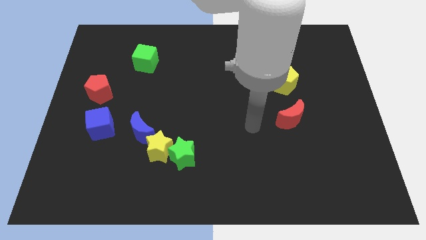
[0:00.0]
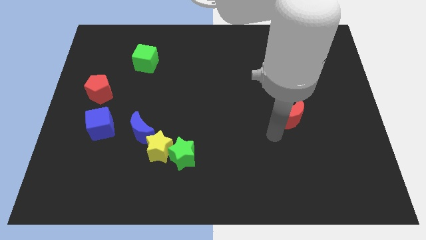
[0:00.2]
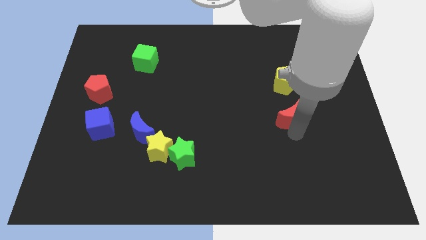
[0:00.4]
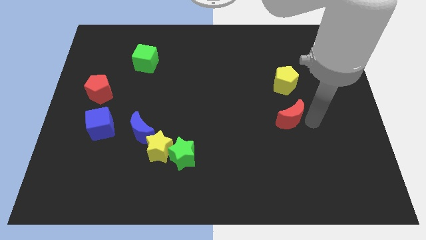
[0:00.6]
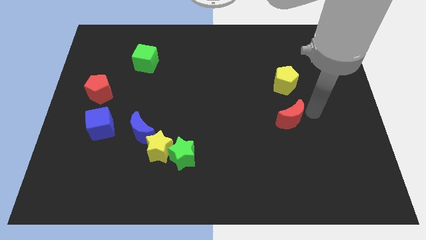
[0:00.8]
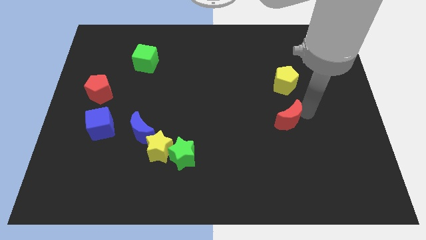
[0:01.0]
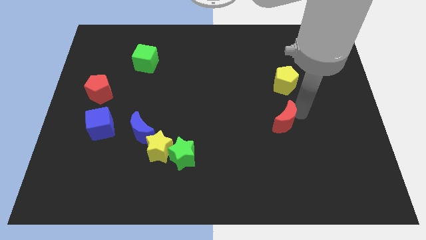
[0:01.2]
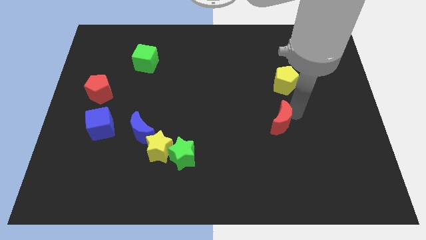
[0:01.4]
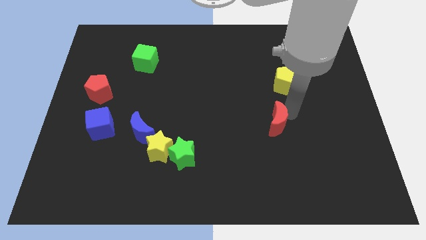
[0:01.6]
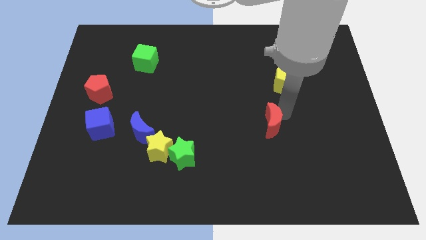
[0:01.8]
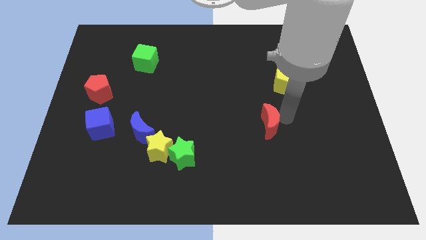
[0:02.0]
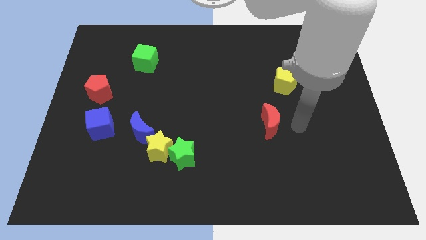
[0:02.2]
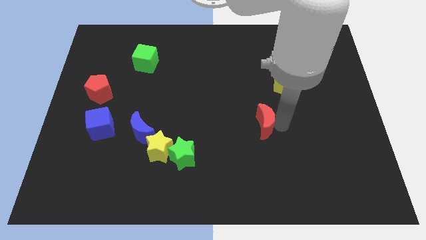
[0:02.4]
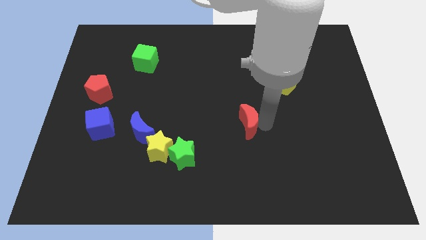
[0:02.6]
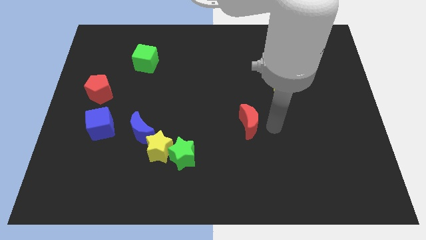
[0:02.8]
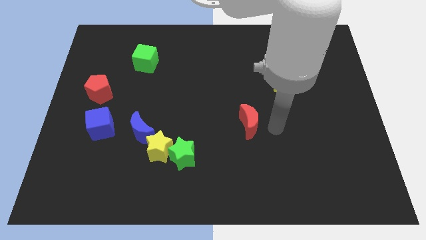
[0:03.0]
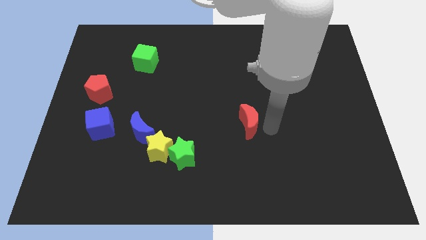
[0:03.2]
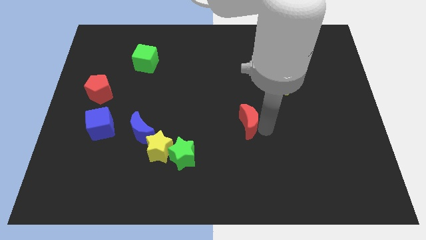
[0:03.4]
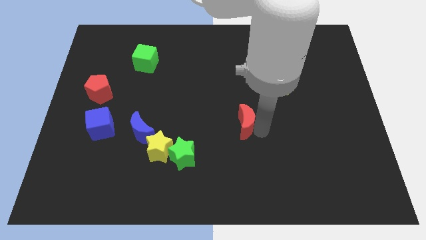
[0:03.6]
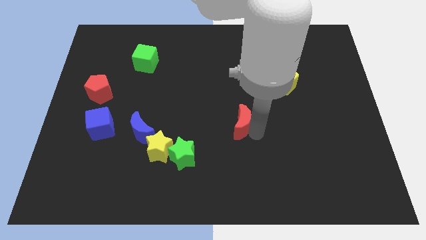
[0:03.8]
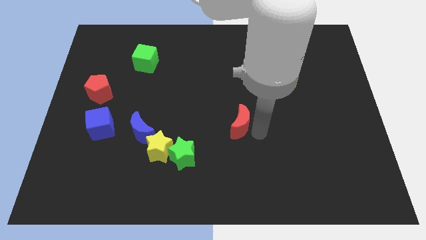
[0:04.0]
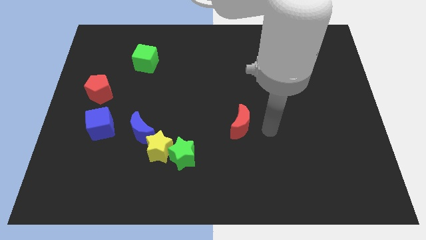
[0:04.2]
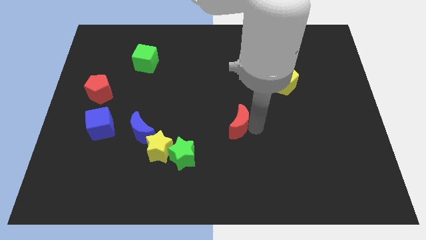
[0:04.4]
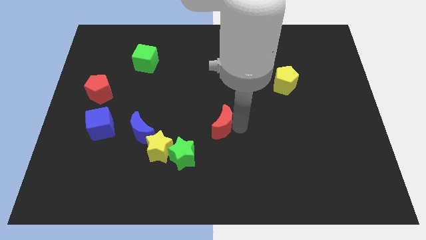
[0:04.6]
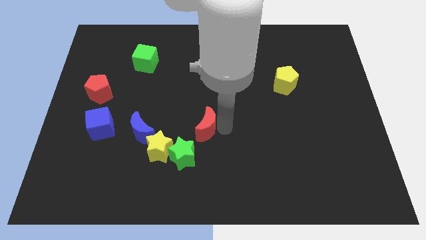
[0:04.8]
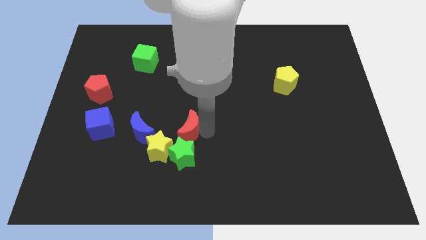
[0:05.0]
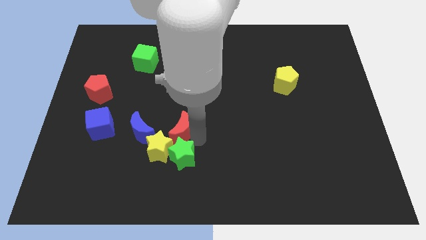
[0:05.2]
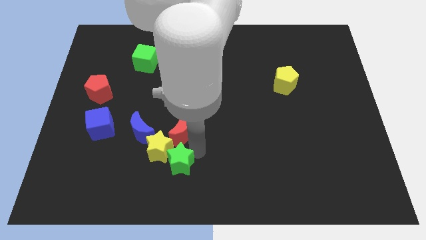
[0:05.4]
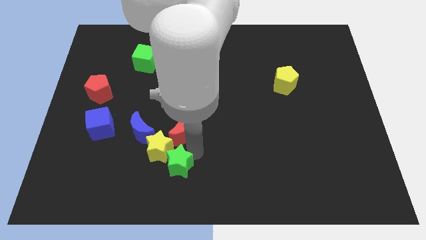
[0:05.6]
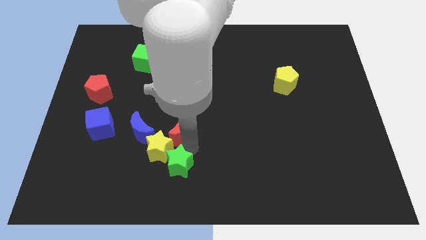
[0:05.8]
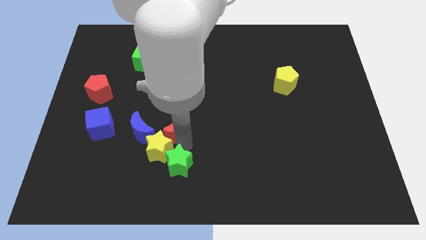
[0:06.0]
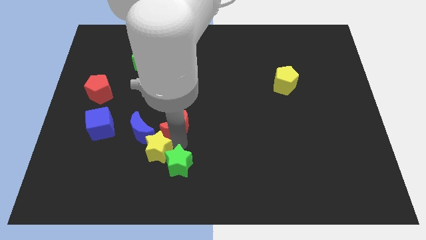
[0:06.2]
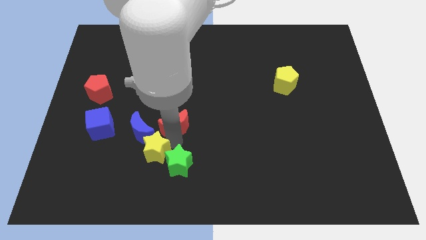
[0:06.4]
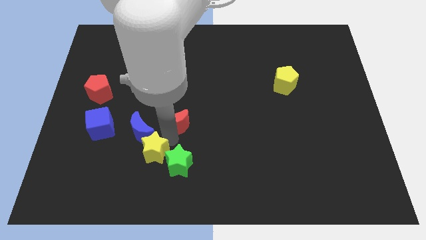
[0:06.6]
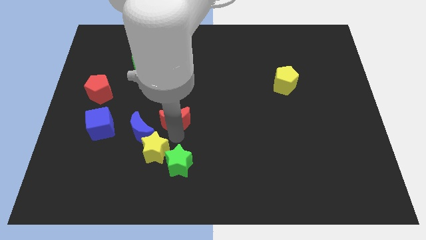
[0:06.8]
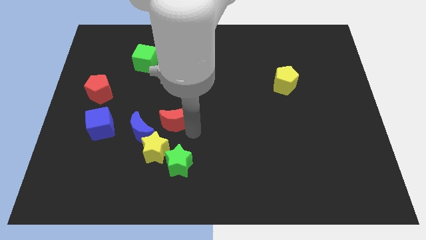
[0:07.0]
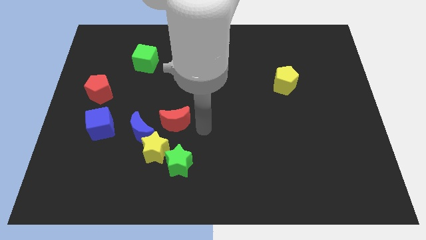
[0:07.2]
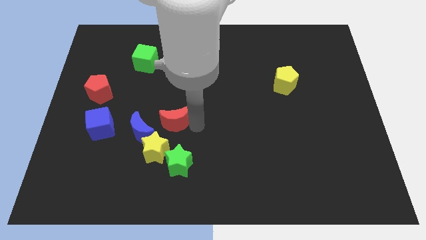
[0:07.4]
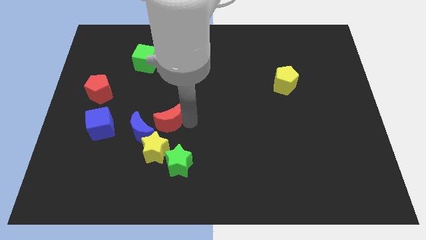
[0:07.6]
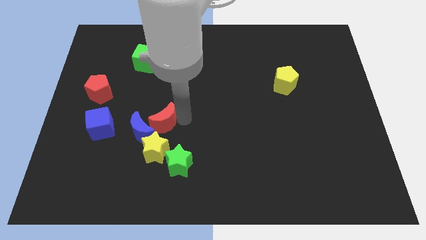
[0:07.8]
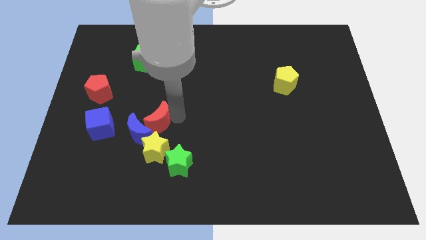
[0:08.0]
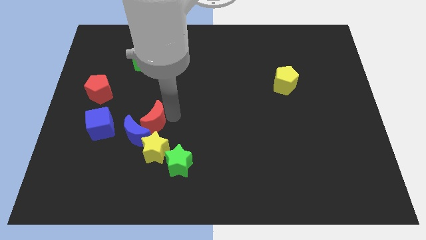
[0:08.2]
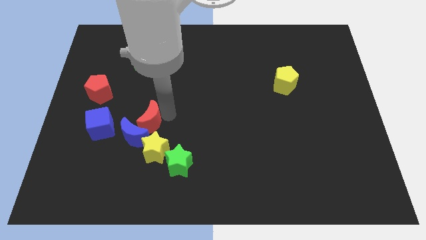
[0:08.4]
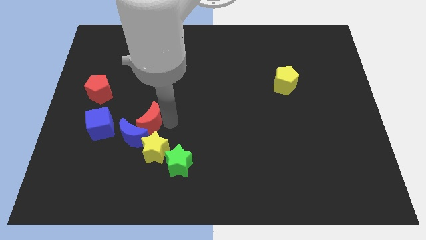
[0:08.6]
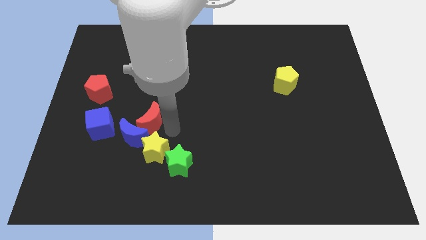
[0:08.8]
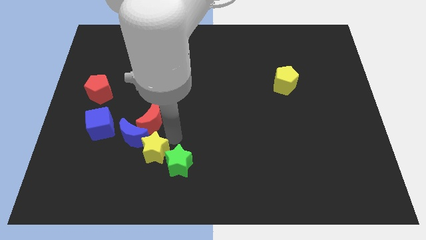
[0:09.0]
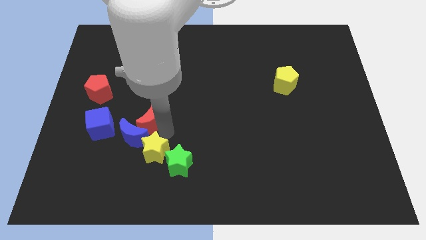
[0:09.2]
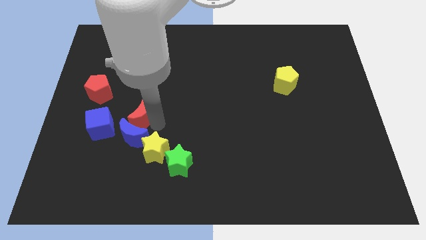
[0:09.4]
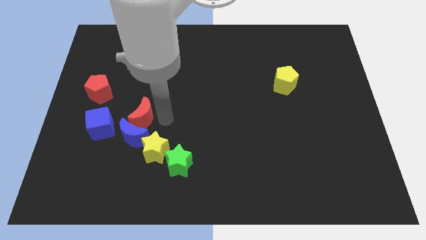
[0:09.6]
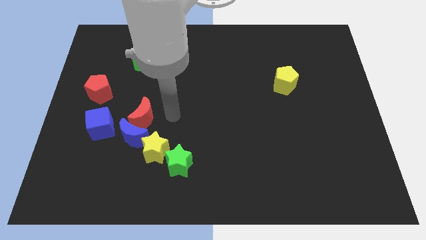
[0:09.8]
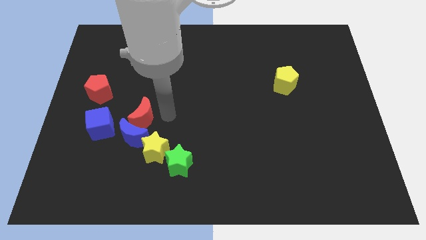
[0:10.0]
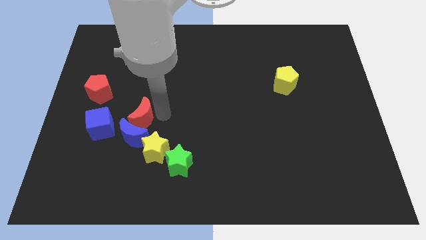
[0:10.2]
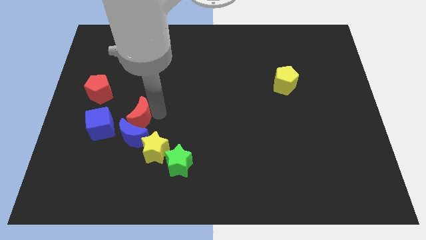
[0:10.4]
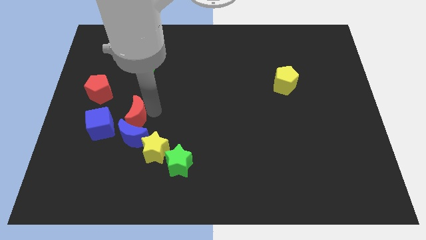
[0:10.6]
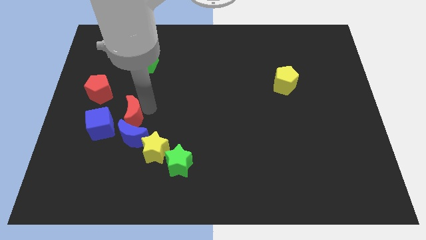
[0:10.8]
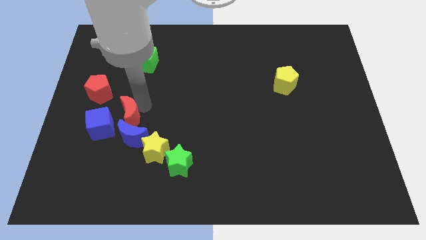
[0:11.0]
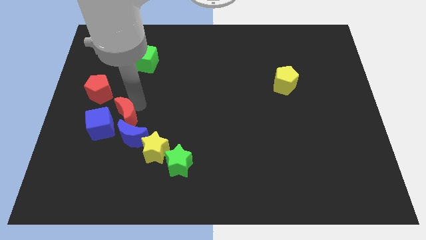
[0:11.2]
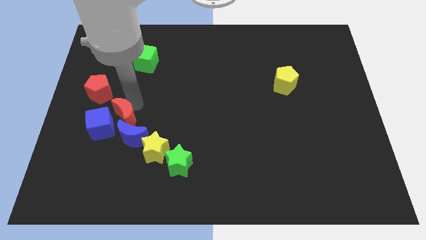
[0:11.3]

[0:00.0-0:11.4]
put the red moon close to the blue cube

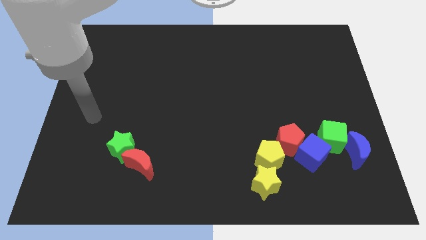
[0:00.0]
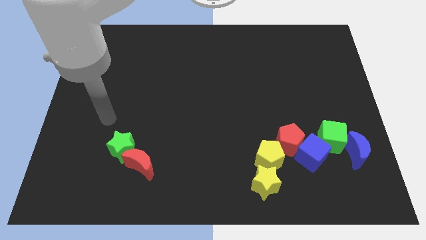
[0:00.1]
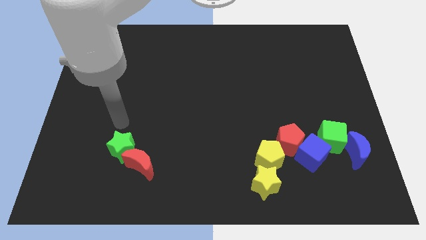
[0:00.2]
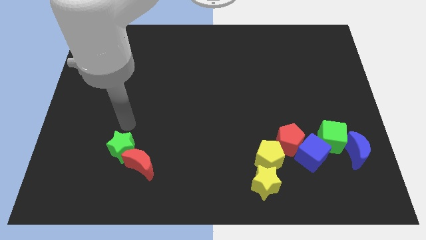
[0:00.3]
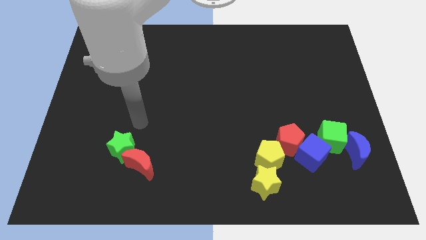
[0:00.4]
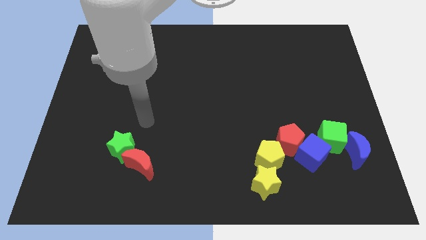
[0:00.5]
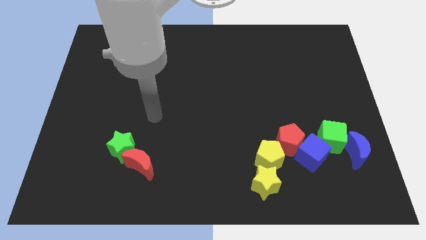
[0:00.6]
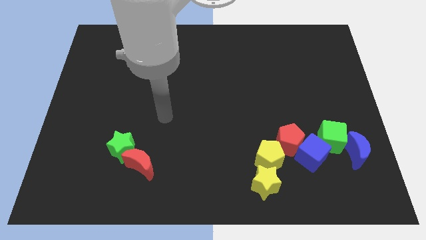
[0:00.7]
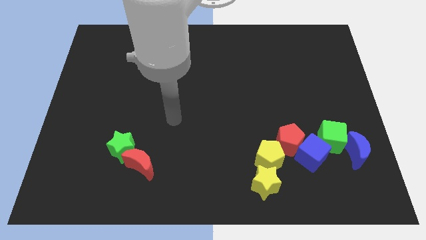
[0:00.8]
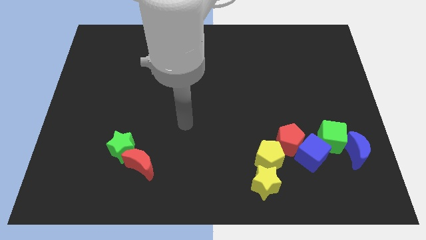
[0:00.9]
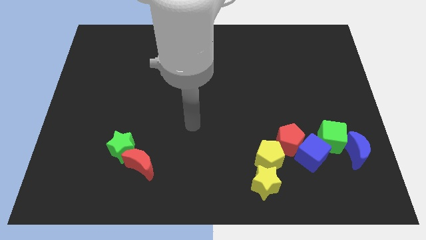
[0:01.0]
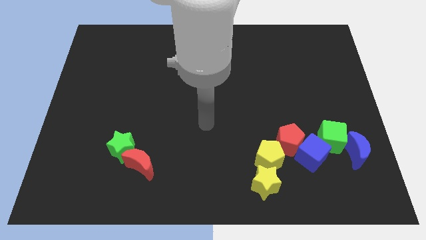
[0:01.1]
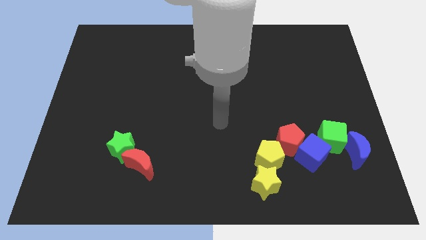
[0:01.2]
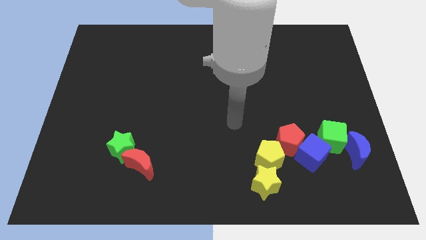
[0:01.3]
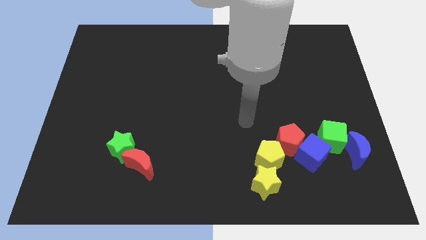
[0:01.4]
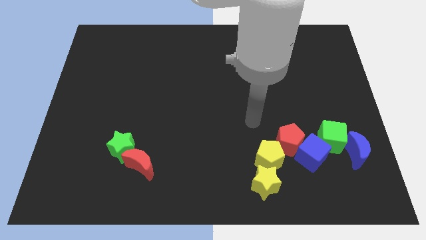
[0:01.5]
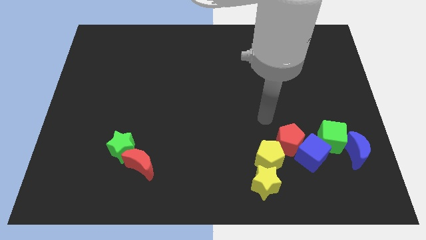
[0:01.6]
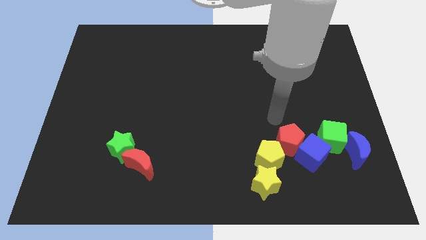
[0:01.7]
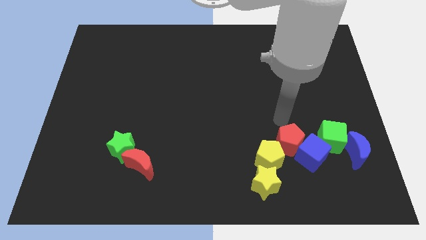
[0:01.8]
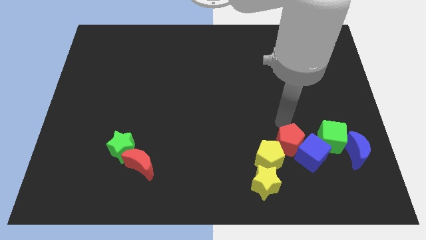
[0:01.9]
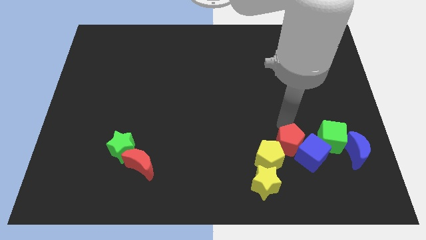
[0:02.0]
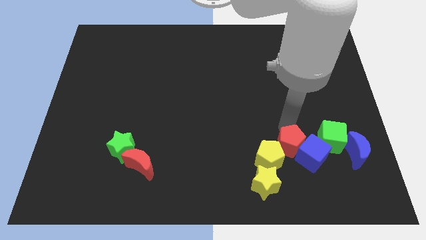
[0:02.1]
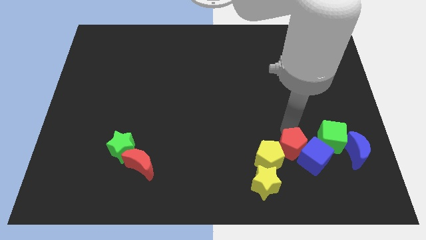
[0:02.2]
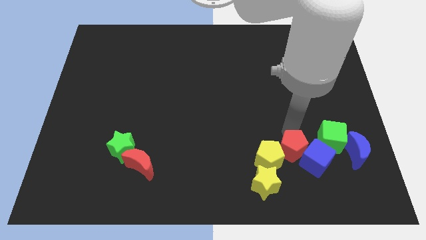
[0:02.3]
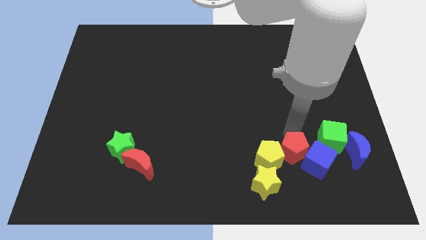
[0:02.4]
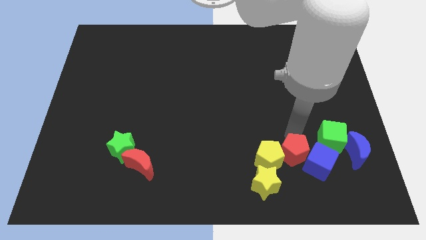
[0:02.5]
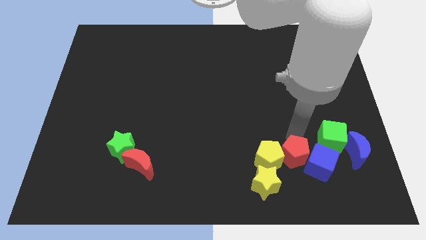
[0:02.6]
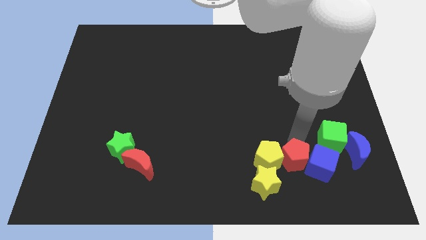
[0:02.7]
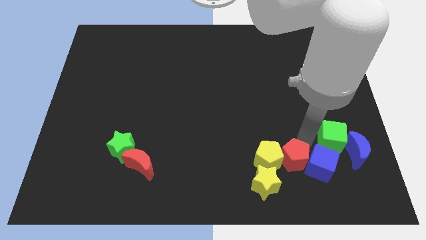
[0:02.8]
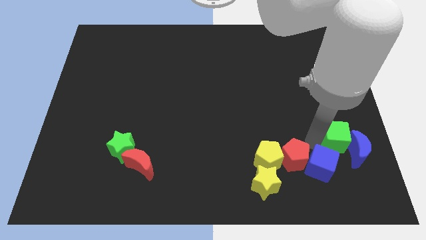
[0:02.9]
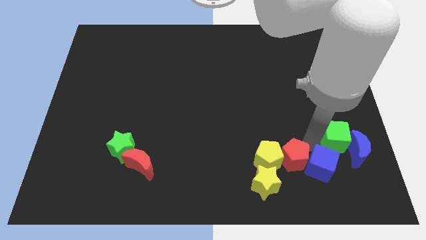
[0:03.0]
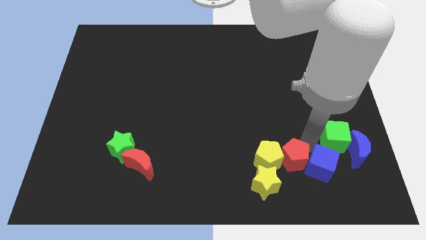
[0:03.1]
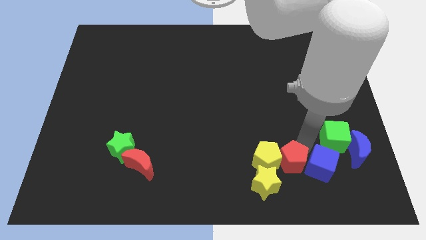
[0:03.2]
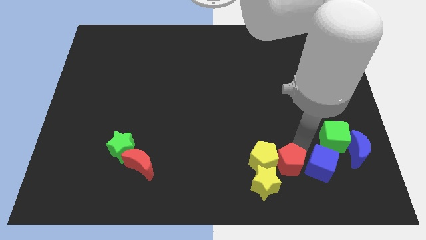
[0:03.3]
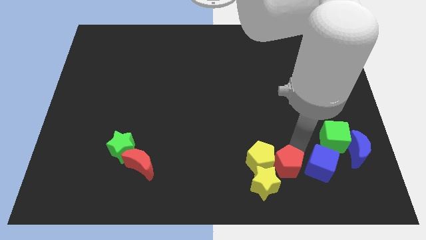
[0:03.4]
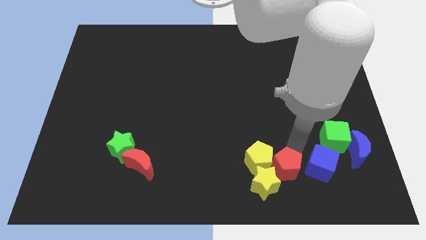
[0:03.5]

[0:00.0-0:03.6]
put the red pentagon close to the yellow star
